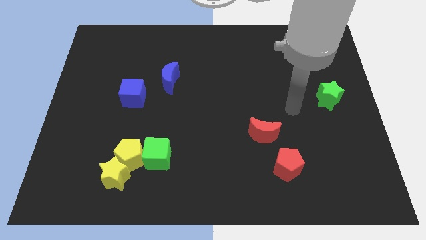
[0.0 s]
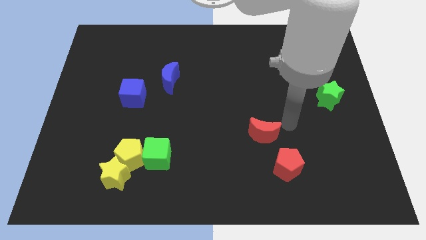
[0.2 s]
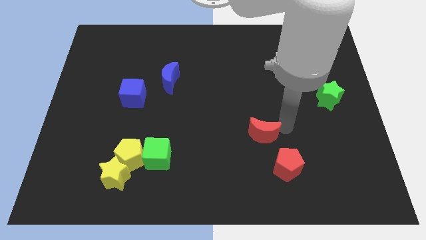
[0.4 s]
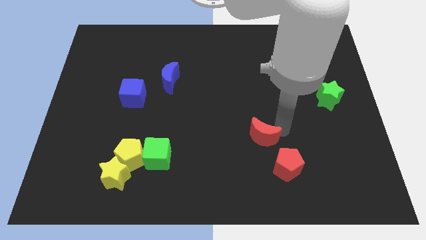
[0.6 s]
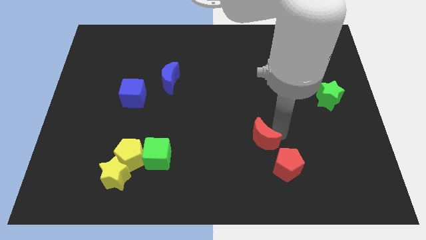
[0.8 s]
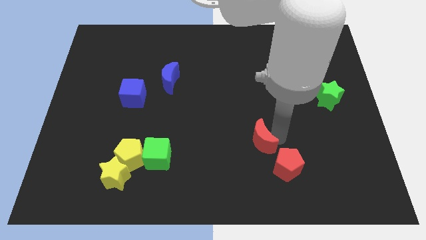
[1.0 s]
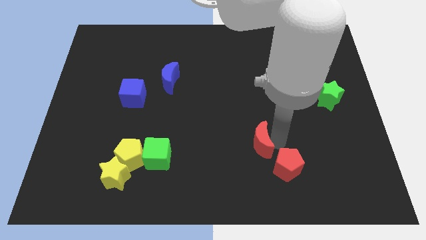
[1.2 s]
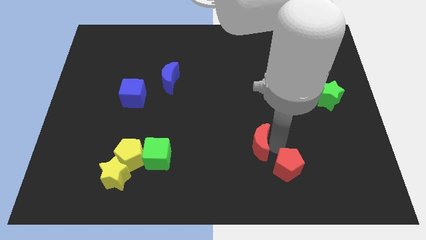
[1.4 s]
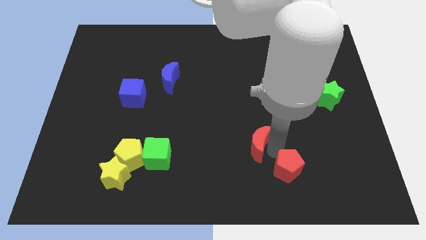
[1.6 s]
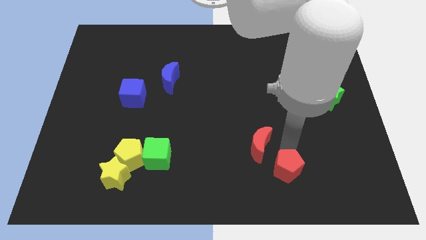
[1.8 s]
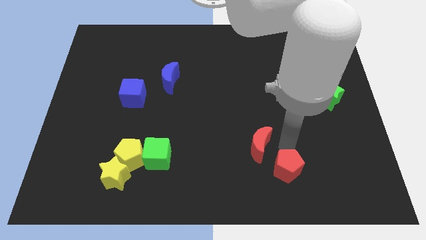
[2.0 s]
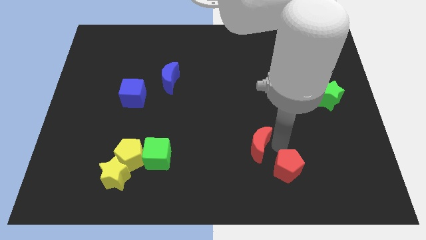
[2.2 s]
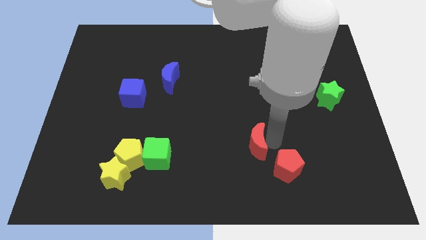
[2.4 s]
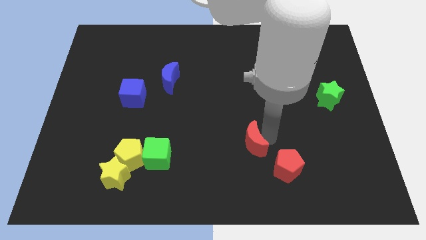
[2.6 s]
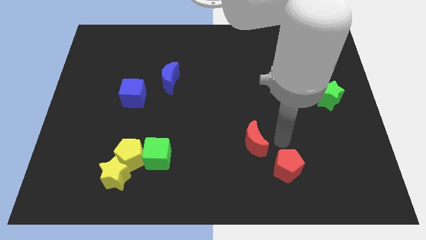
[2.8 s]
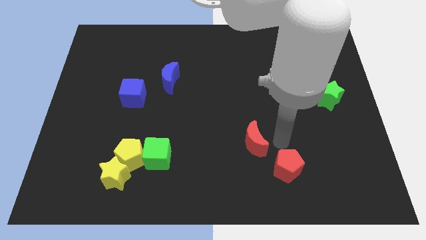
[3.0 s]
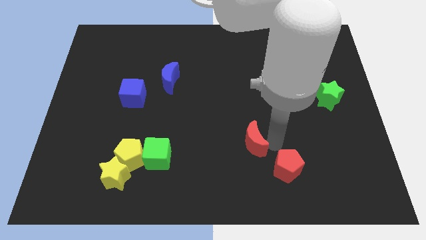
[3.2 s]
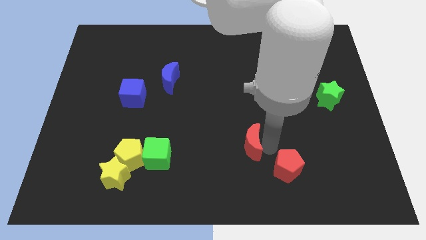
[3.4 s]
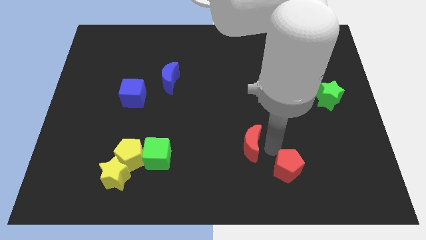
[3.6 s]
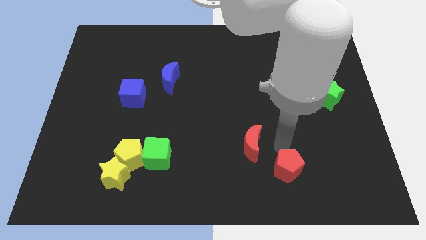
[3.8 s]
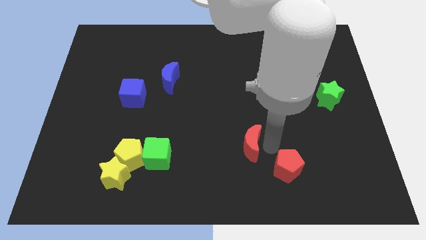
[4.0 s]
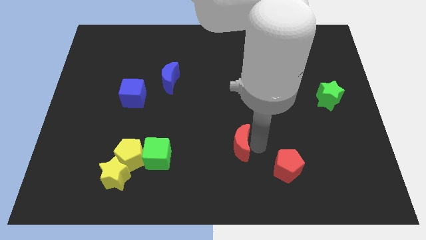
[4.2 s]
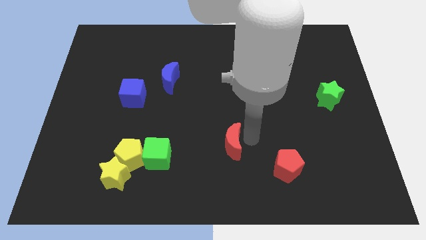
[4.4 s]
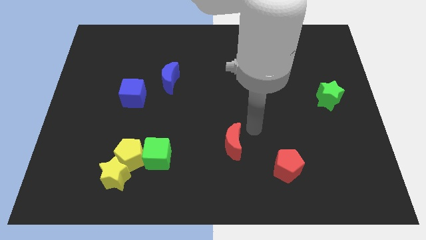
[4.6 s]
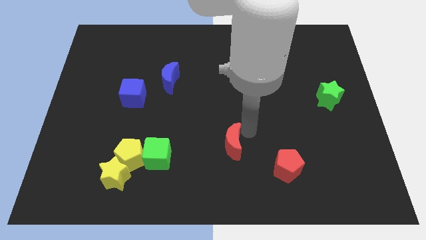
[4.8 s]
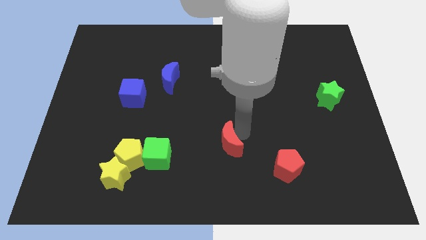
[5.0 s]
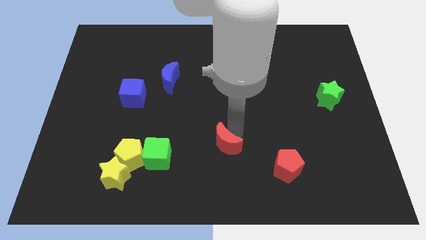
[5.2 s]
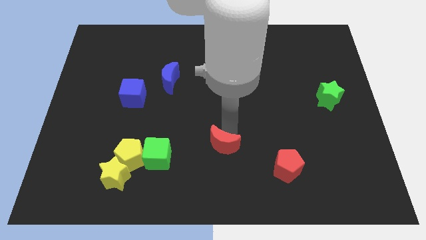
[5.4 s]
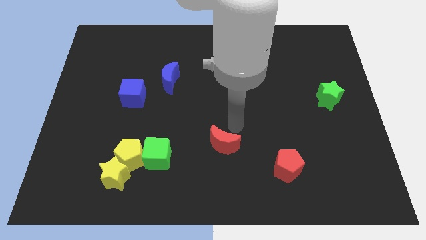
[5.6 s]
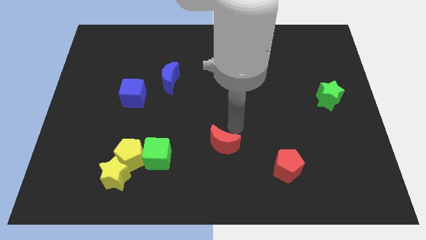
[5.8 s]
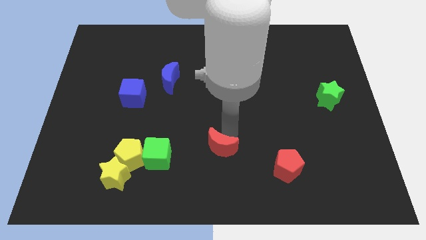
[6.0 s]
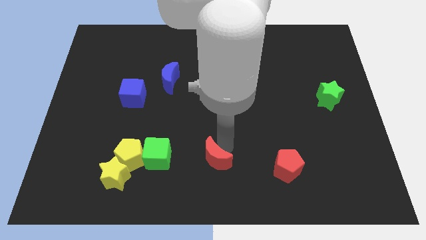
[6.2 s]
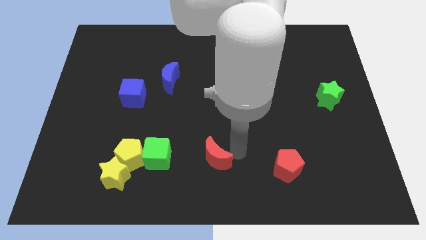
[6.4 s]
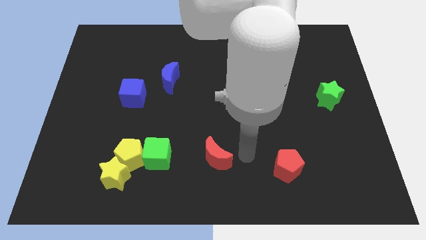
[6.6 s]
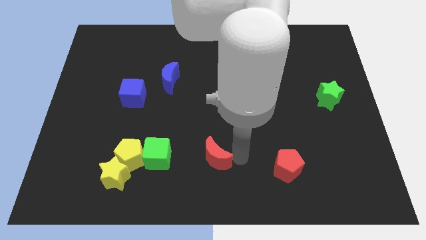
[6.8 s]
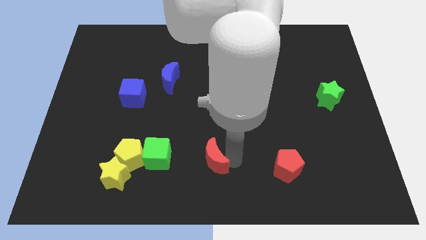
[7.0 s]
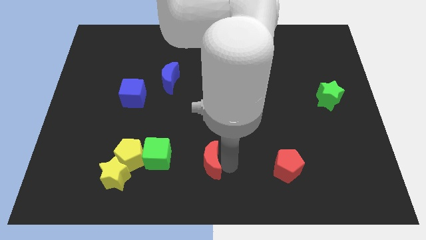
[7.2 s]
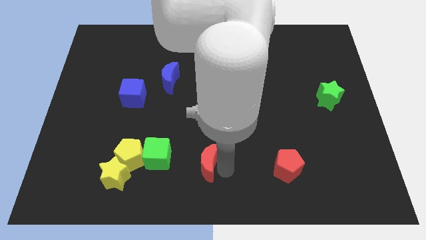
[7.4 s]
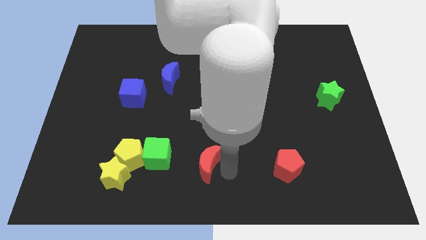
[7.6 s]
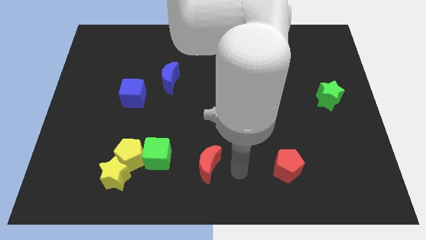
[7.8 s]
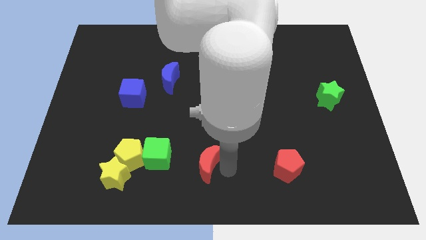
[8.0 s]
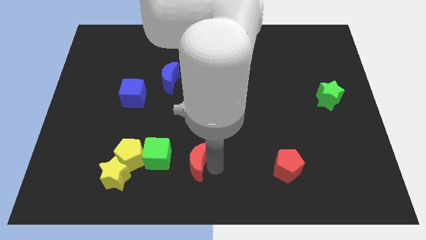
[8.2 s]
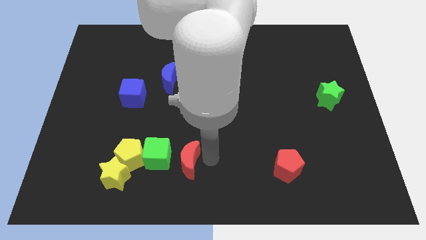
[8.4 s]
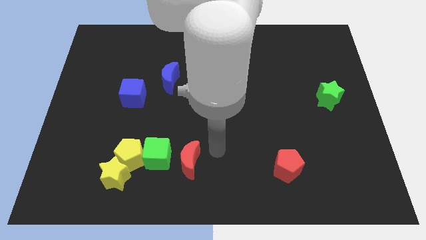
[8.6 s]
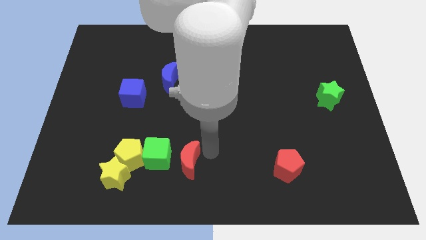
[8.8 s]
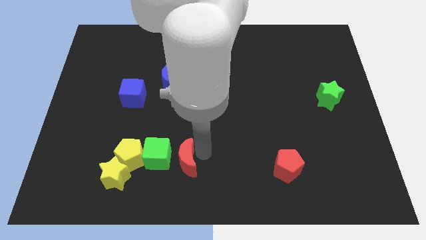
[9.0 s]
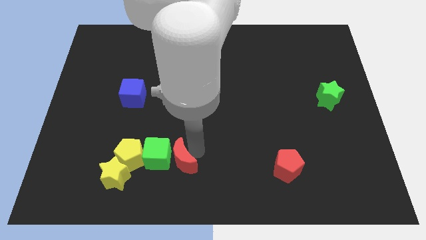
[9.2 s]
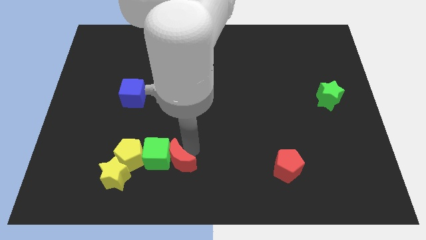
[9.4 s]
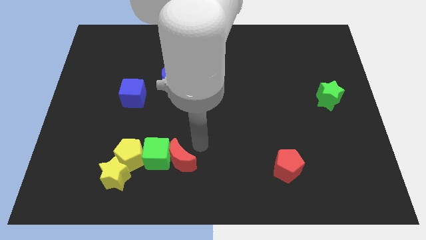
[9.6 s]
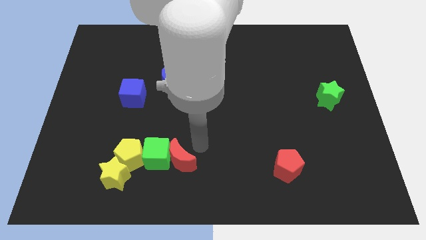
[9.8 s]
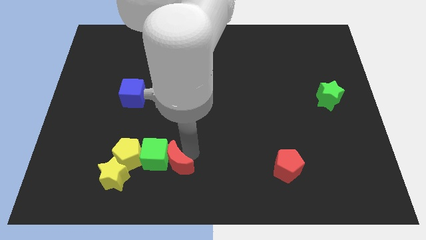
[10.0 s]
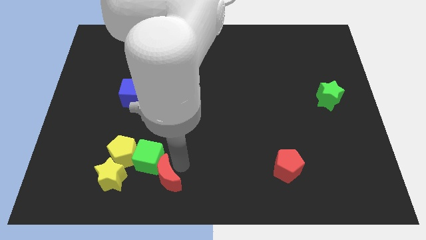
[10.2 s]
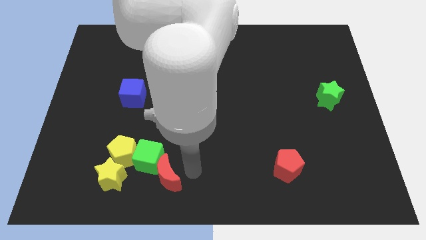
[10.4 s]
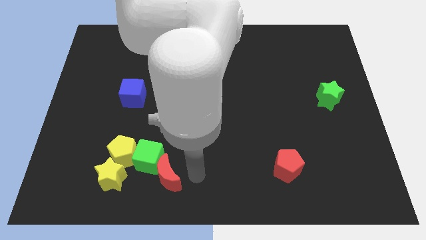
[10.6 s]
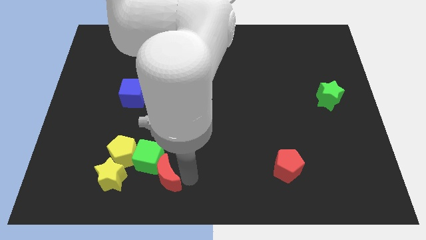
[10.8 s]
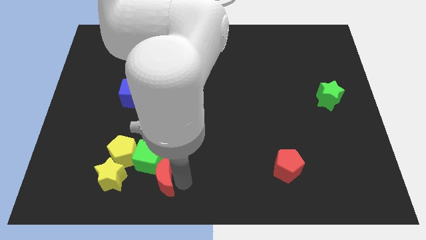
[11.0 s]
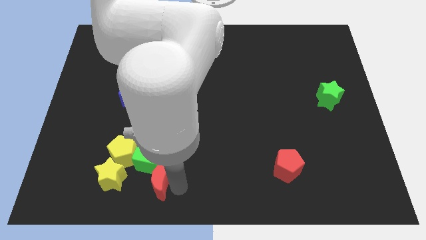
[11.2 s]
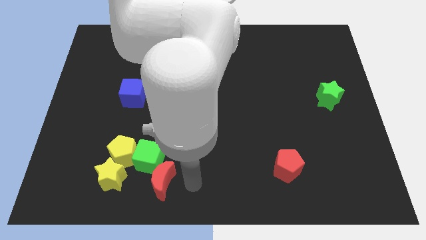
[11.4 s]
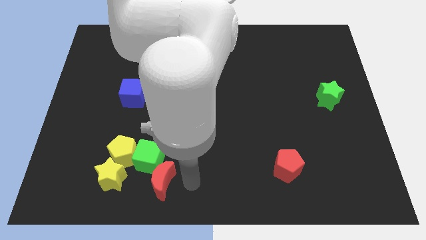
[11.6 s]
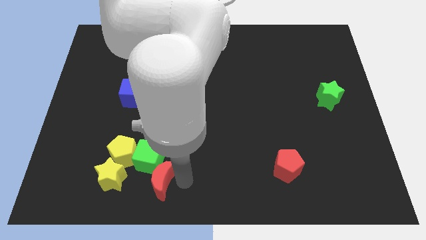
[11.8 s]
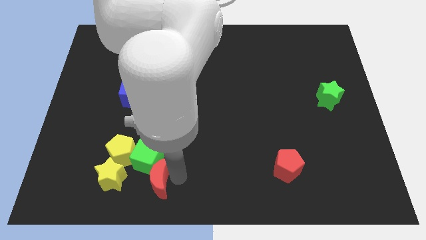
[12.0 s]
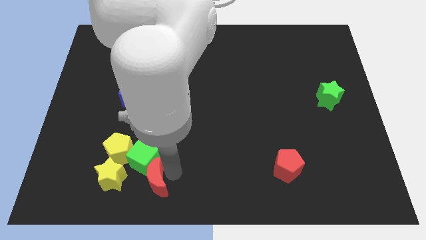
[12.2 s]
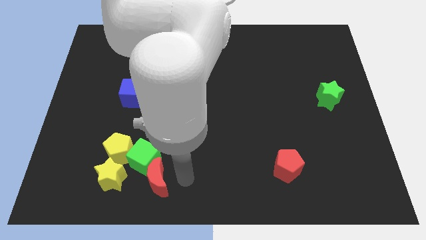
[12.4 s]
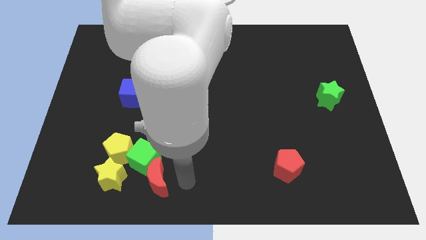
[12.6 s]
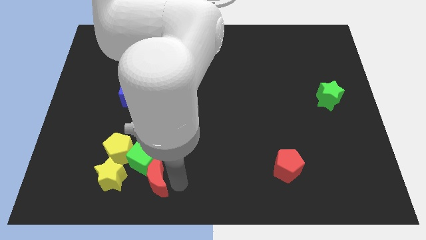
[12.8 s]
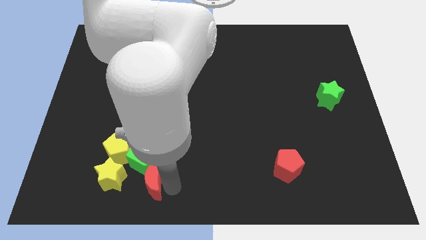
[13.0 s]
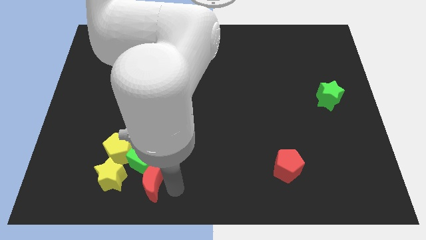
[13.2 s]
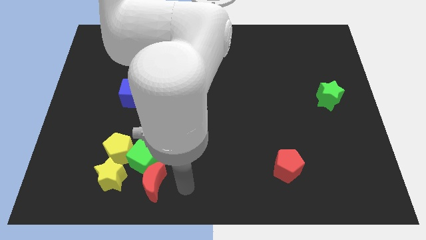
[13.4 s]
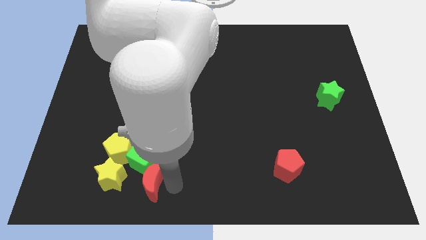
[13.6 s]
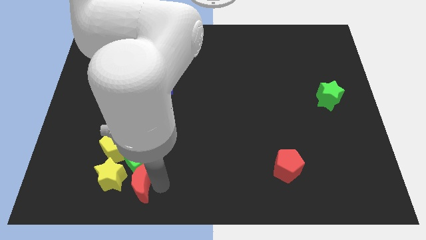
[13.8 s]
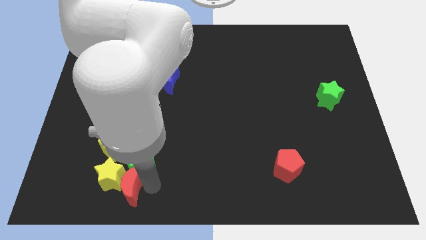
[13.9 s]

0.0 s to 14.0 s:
slide the red moon to the yellow star
